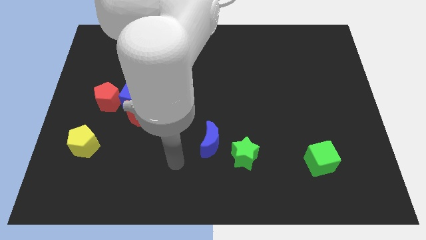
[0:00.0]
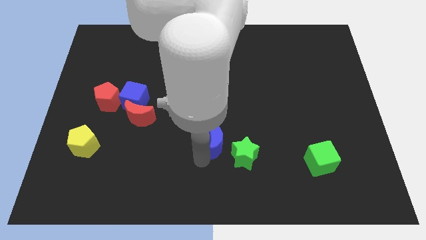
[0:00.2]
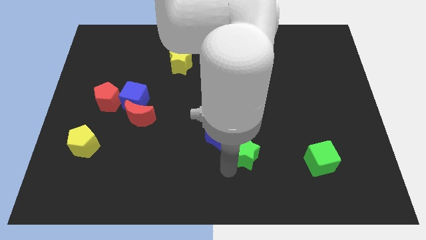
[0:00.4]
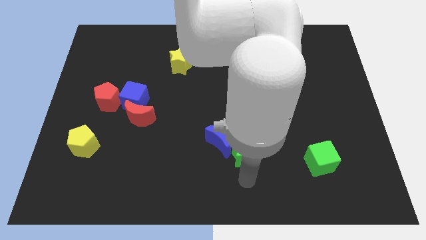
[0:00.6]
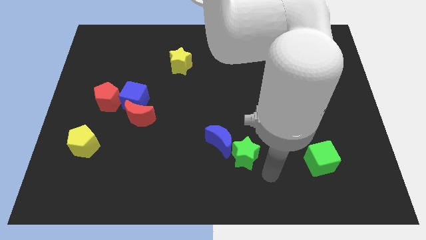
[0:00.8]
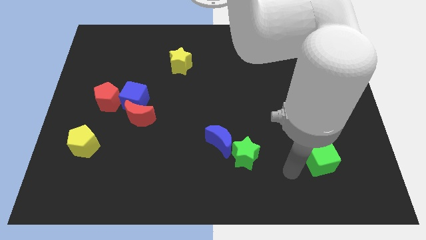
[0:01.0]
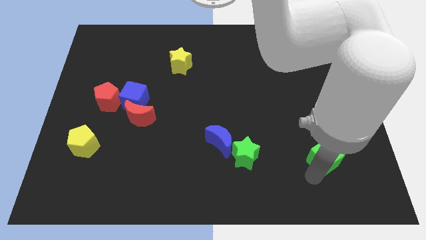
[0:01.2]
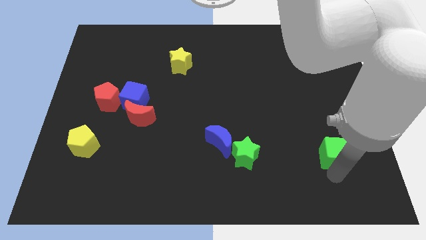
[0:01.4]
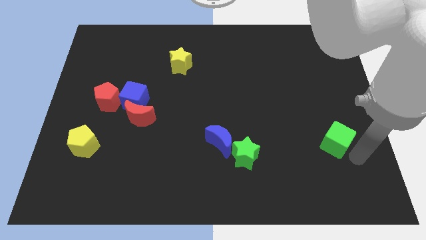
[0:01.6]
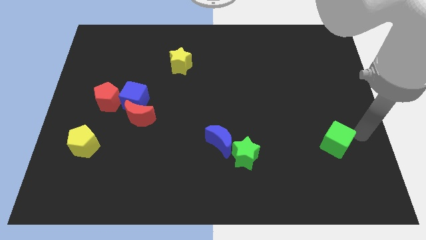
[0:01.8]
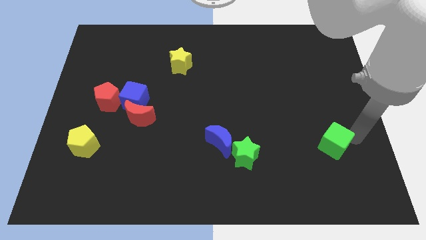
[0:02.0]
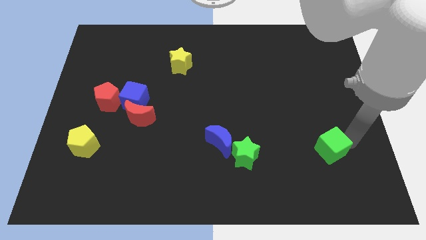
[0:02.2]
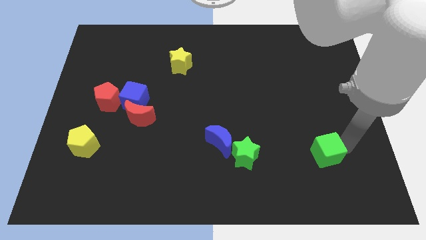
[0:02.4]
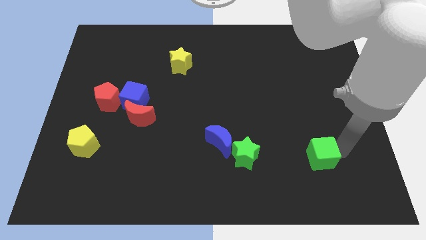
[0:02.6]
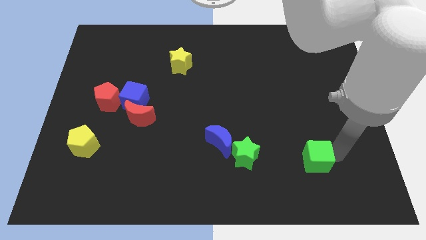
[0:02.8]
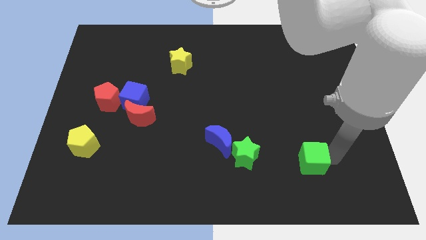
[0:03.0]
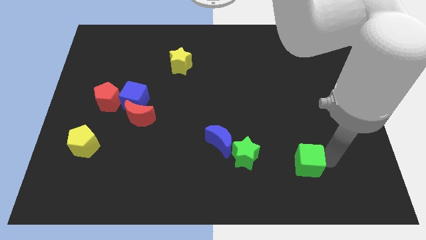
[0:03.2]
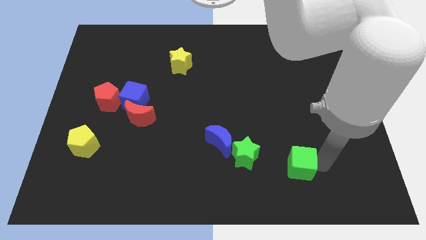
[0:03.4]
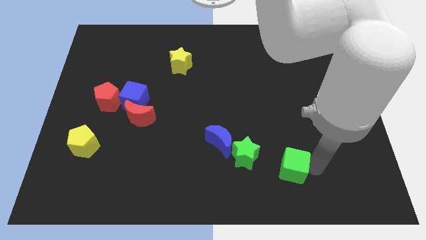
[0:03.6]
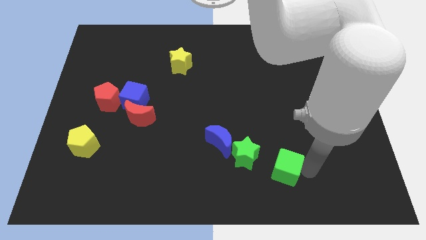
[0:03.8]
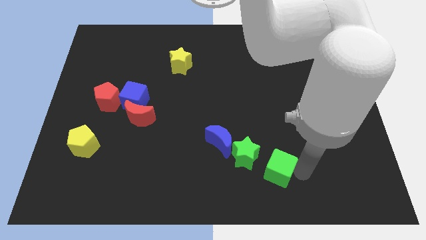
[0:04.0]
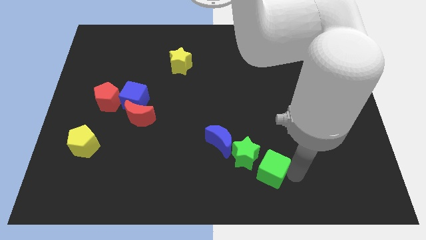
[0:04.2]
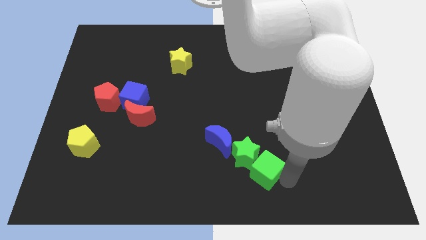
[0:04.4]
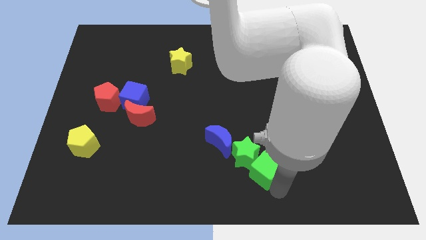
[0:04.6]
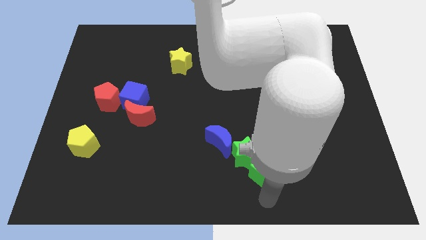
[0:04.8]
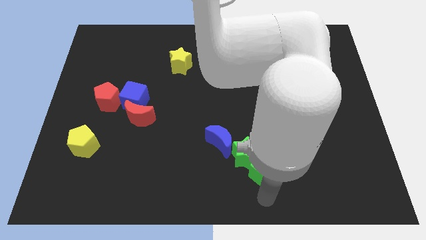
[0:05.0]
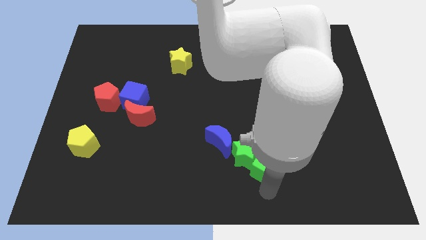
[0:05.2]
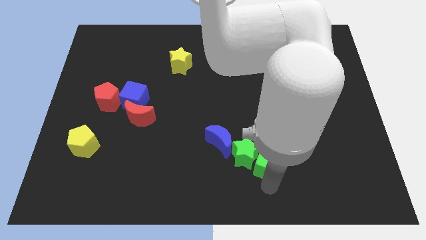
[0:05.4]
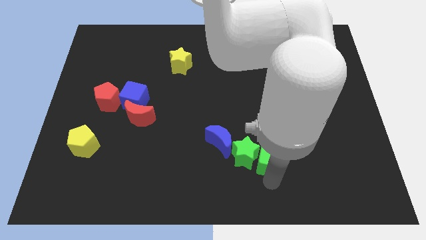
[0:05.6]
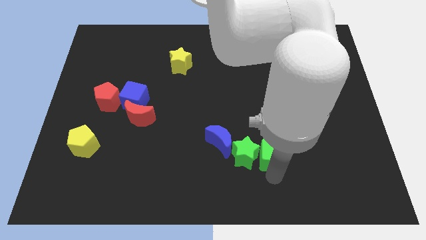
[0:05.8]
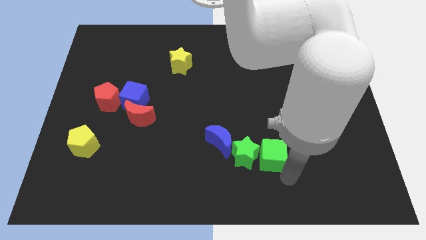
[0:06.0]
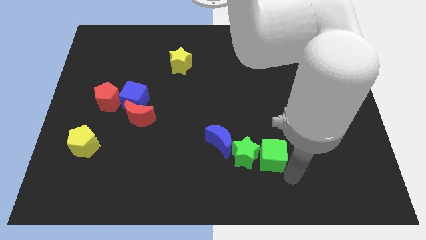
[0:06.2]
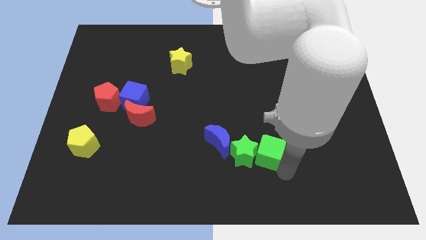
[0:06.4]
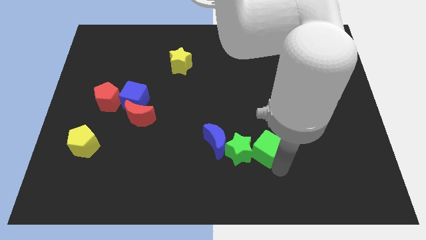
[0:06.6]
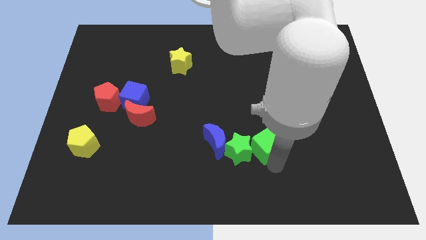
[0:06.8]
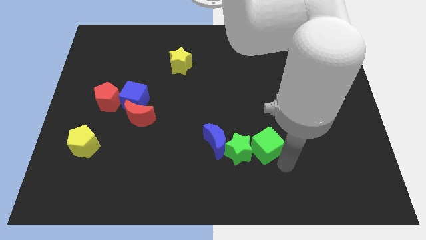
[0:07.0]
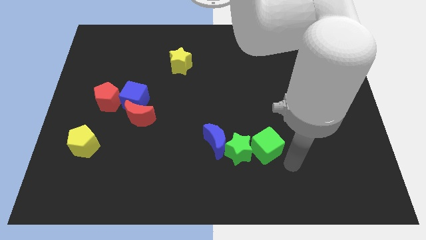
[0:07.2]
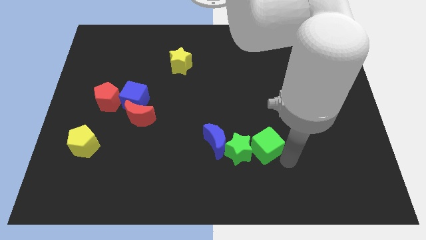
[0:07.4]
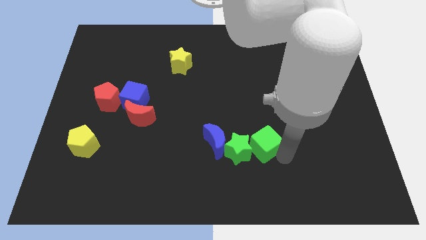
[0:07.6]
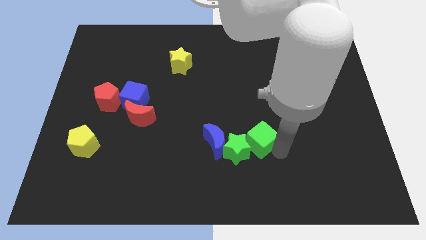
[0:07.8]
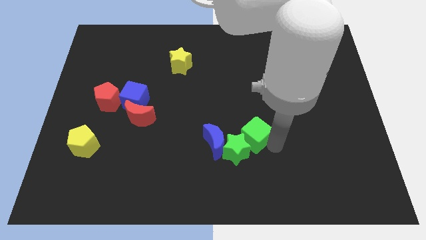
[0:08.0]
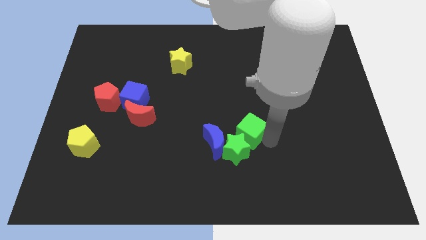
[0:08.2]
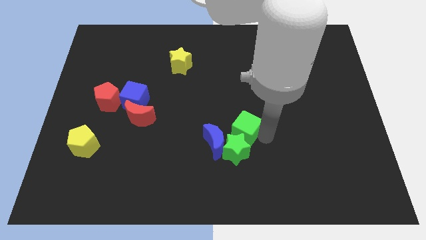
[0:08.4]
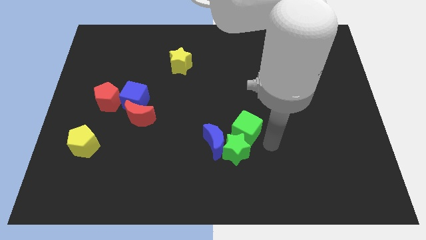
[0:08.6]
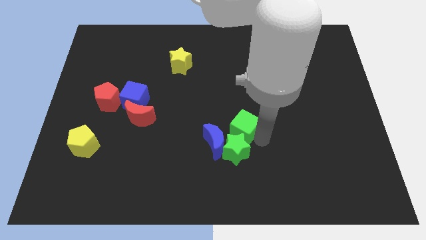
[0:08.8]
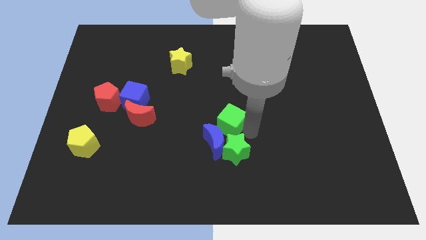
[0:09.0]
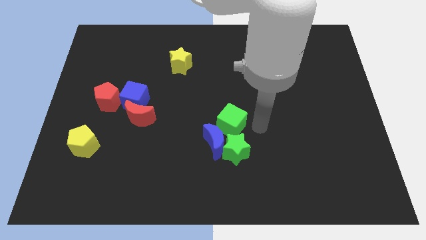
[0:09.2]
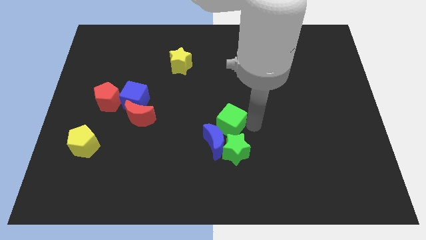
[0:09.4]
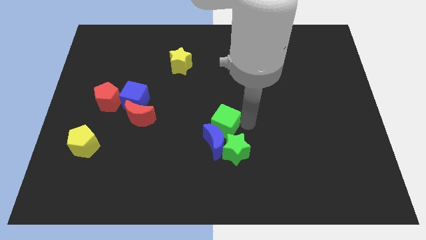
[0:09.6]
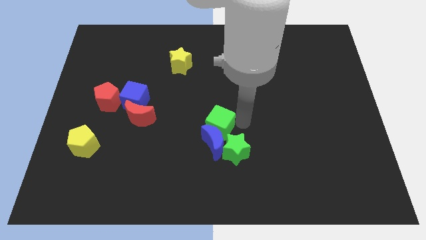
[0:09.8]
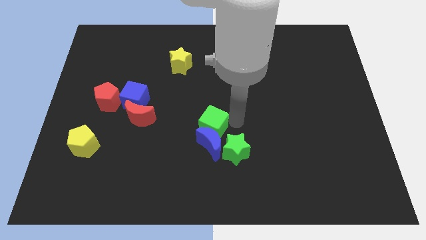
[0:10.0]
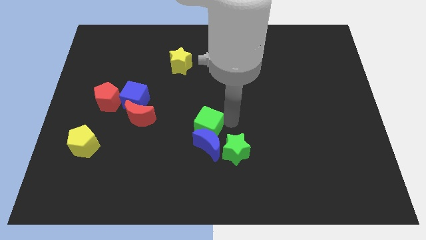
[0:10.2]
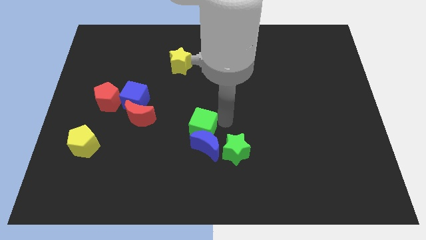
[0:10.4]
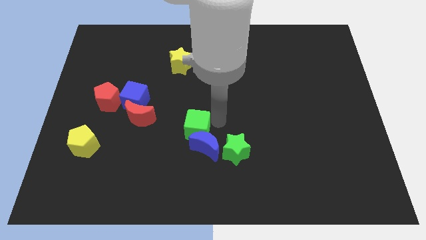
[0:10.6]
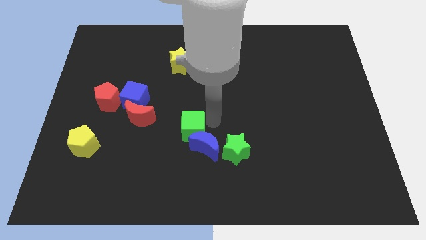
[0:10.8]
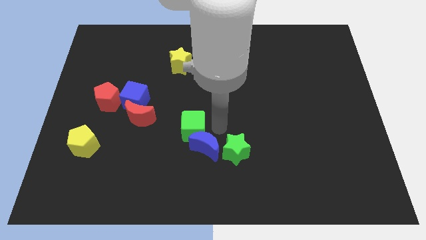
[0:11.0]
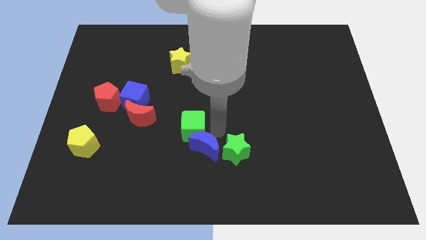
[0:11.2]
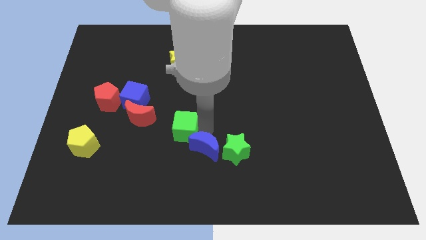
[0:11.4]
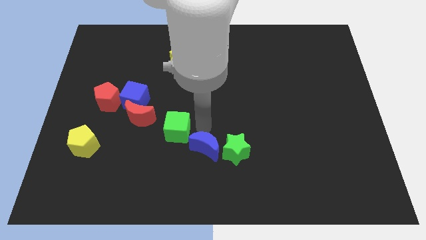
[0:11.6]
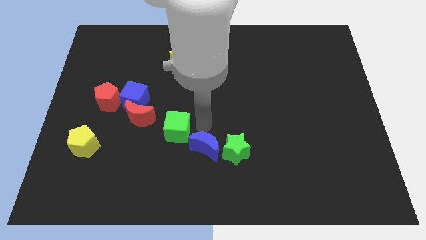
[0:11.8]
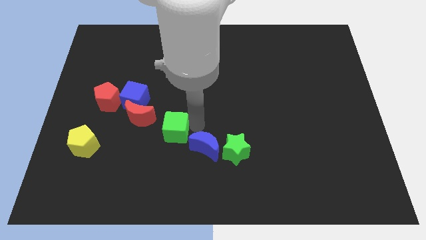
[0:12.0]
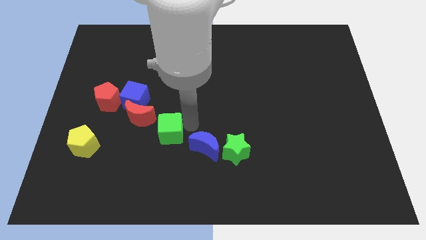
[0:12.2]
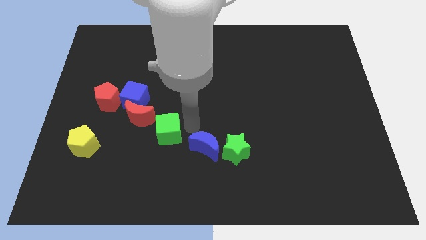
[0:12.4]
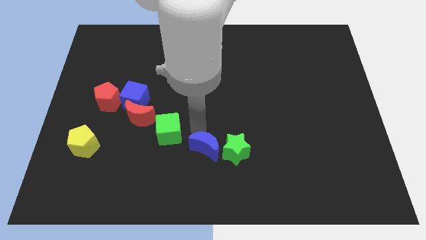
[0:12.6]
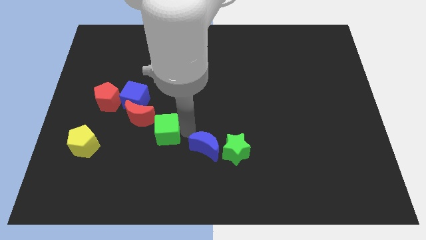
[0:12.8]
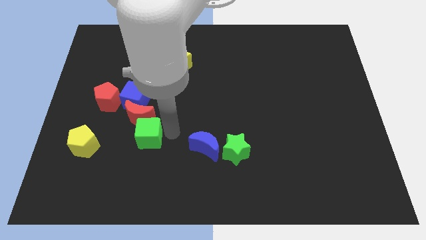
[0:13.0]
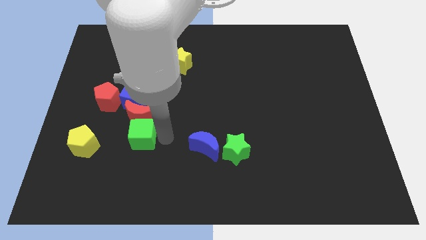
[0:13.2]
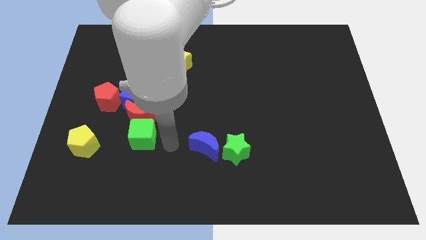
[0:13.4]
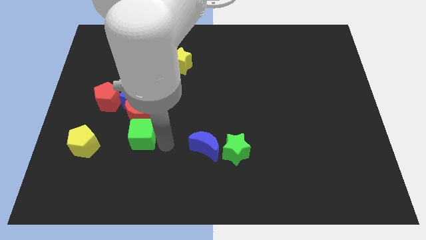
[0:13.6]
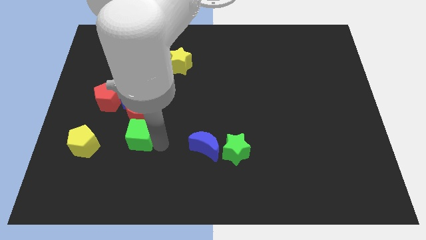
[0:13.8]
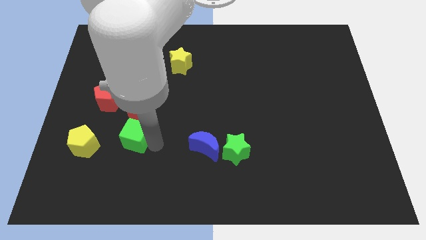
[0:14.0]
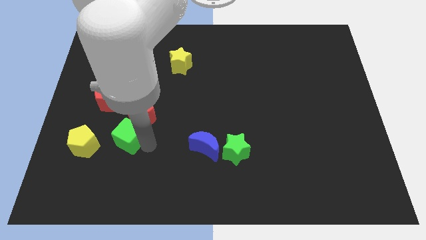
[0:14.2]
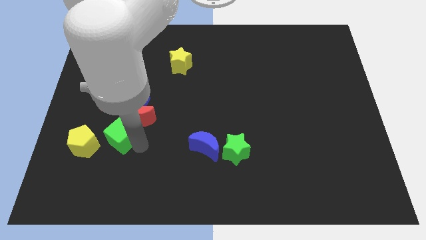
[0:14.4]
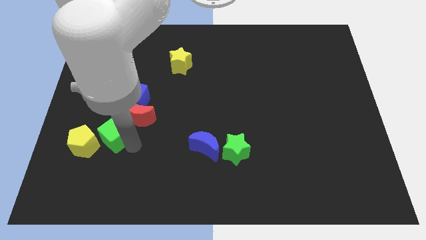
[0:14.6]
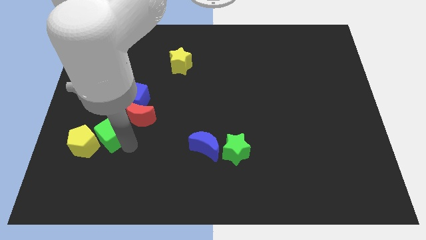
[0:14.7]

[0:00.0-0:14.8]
put the green cube to the bottom left of the blue cube

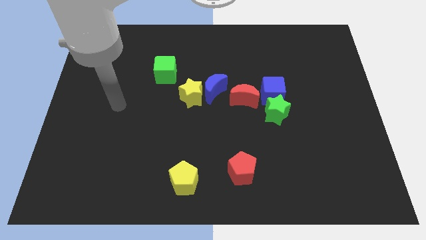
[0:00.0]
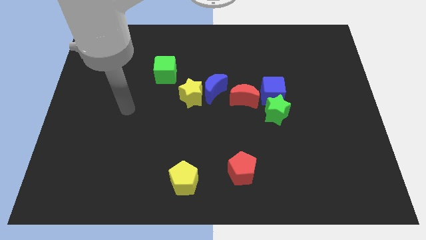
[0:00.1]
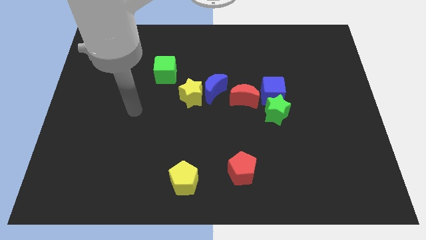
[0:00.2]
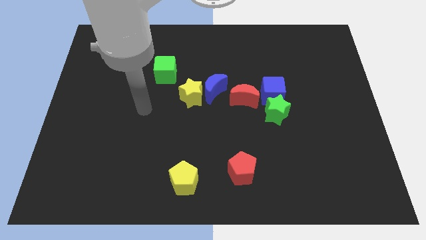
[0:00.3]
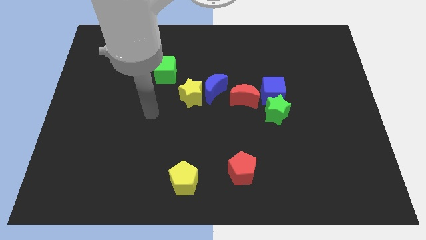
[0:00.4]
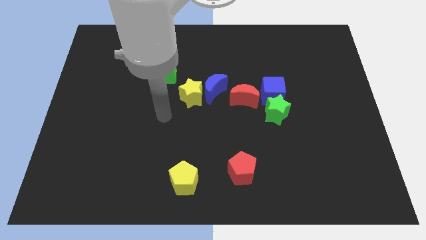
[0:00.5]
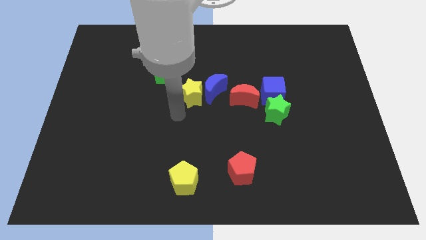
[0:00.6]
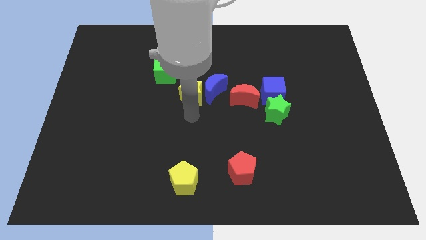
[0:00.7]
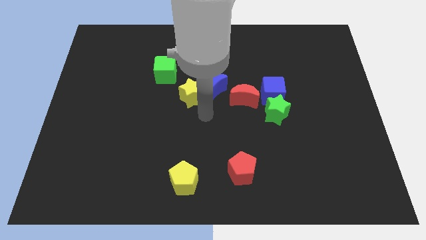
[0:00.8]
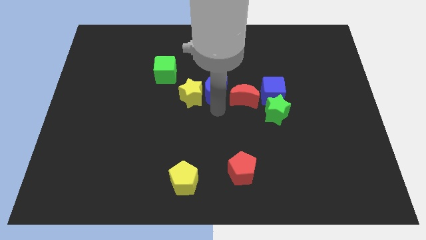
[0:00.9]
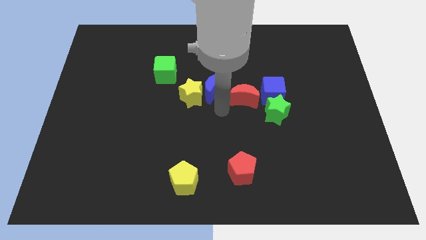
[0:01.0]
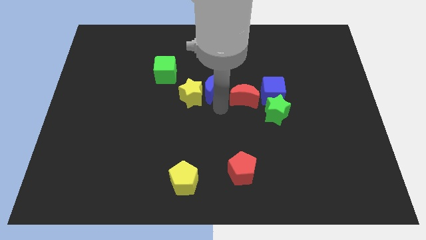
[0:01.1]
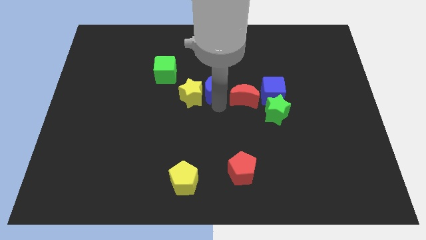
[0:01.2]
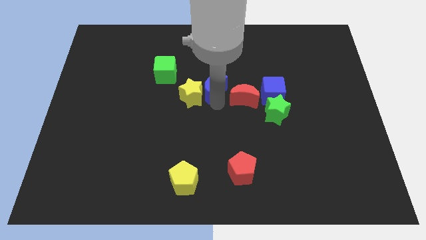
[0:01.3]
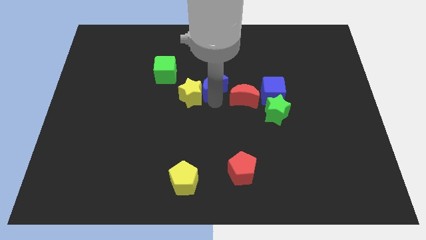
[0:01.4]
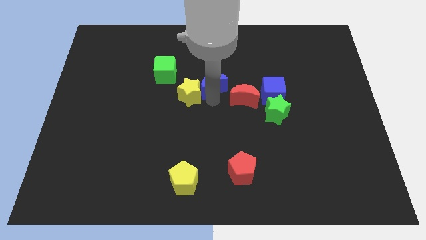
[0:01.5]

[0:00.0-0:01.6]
slide the blue moon to the right of the green cube
